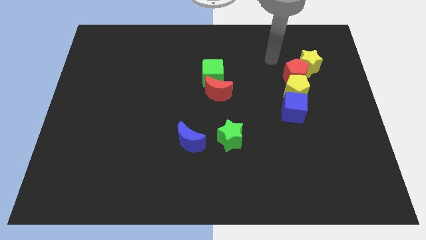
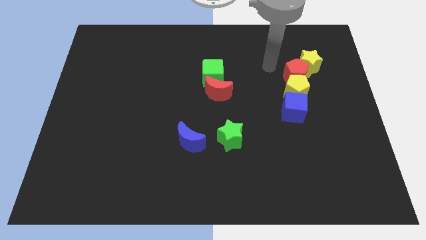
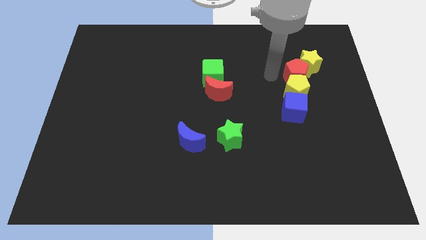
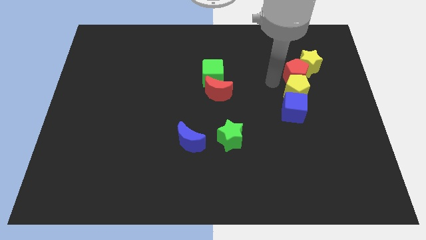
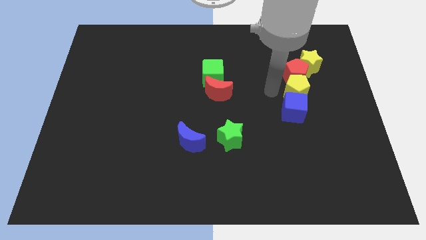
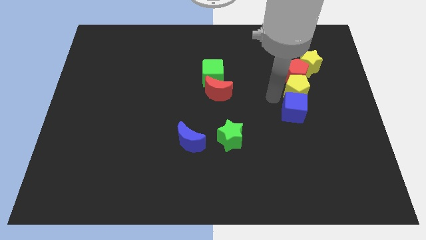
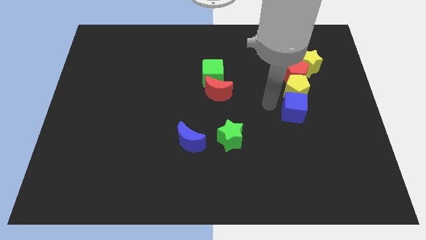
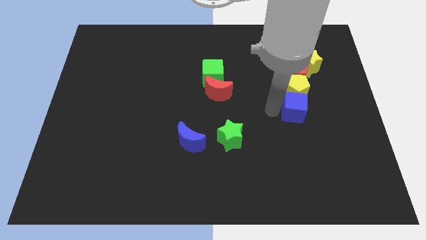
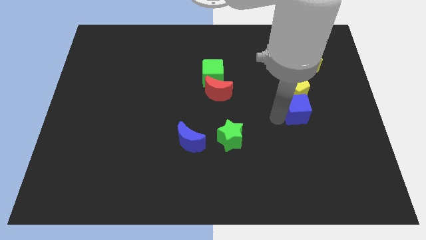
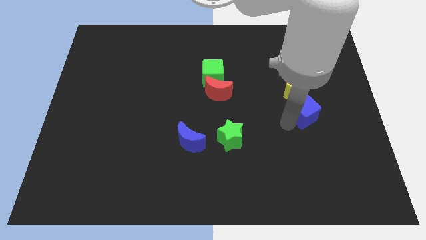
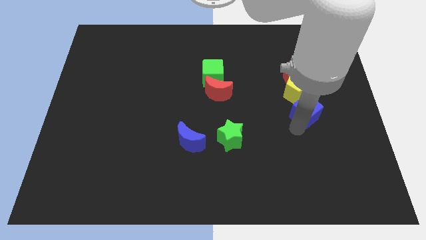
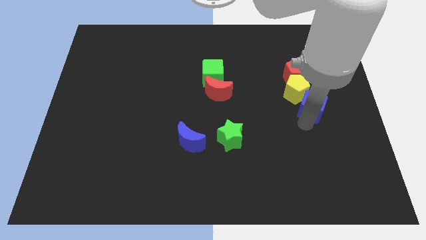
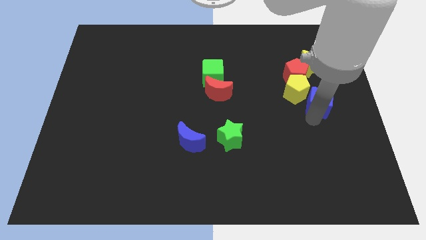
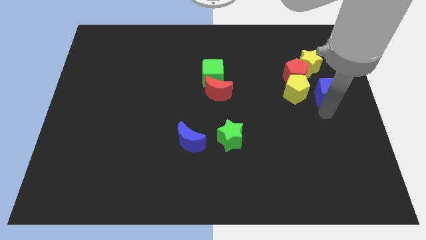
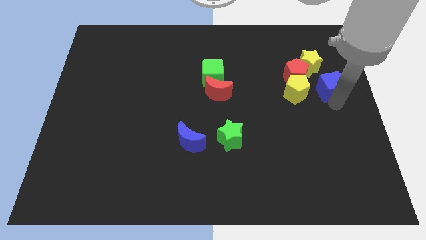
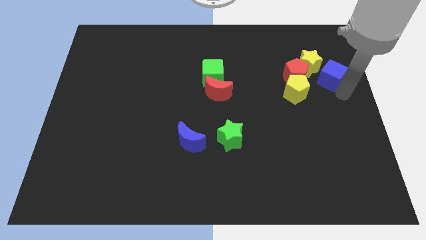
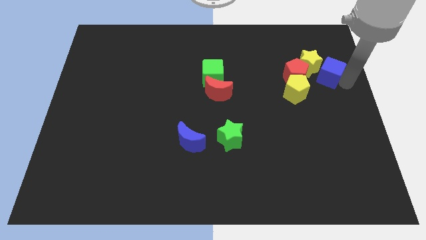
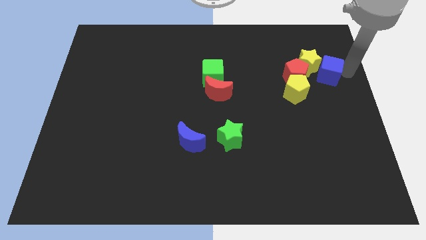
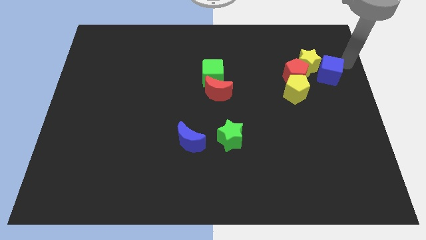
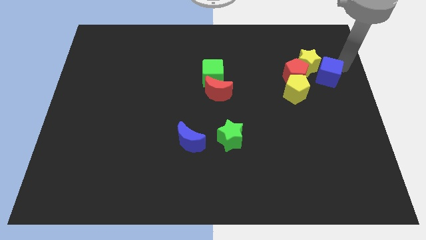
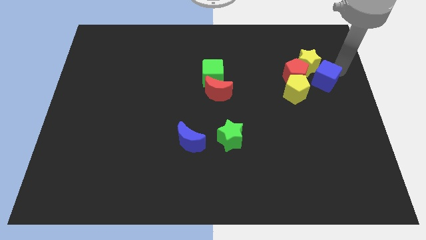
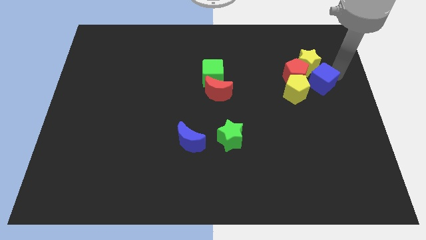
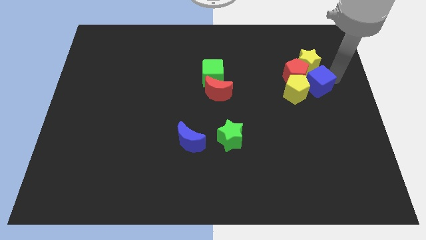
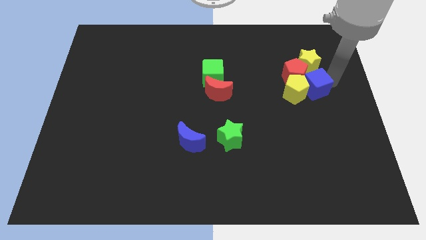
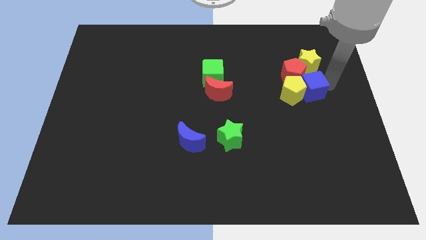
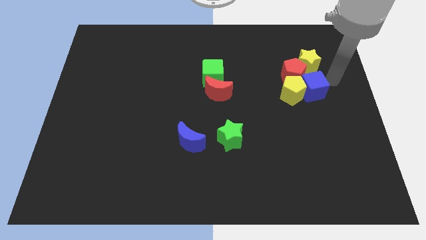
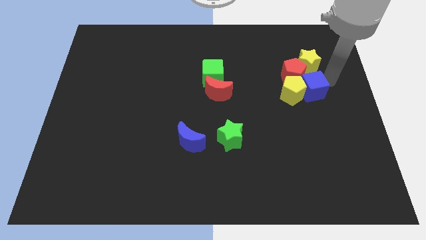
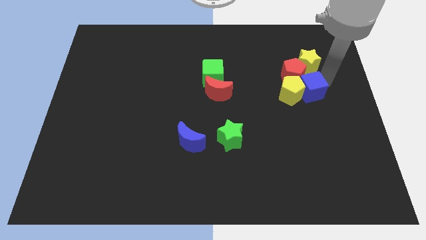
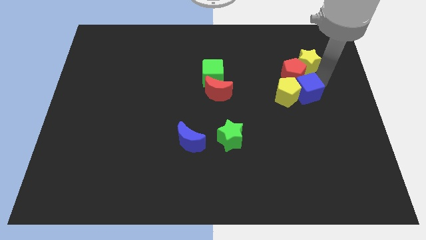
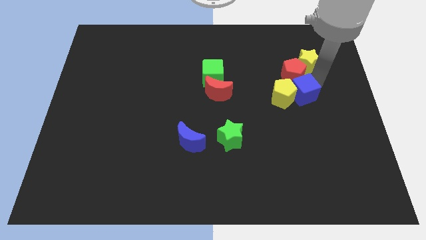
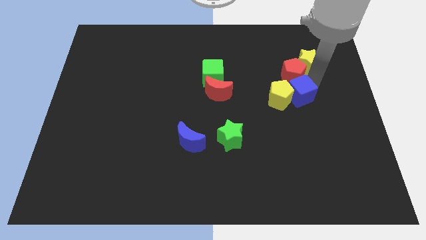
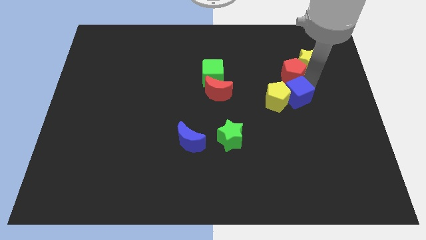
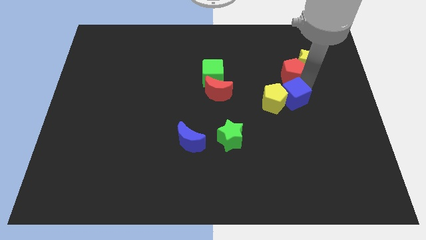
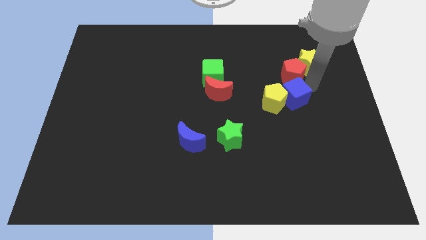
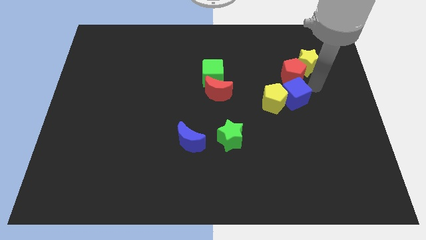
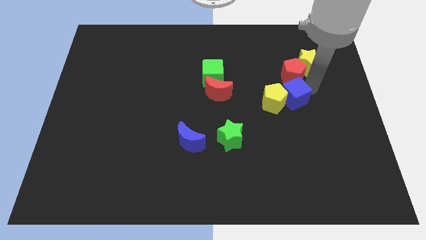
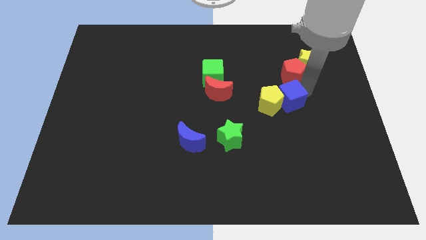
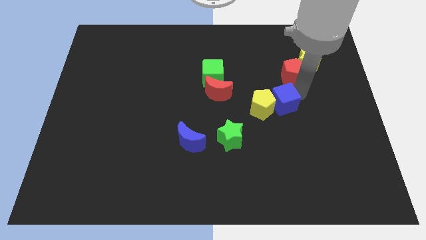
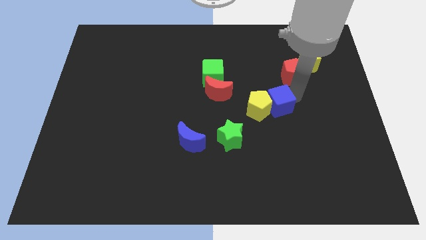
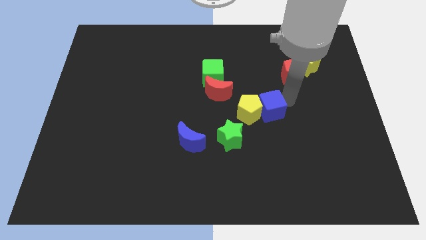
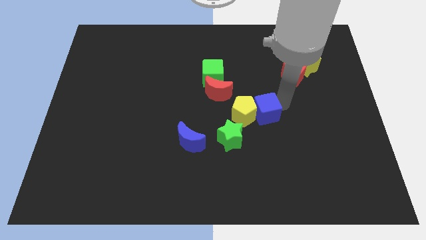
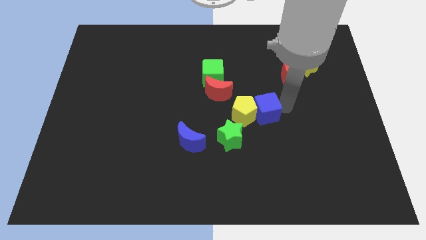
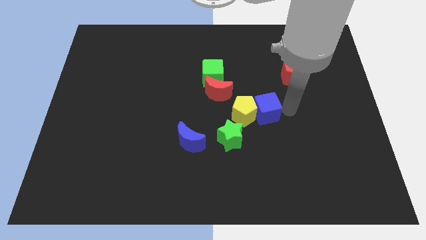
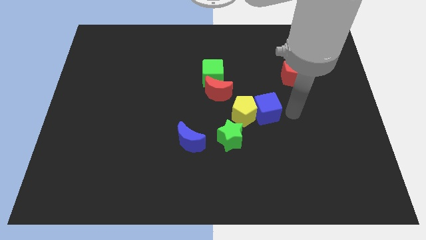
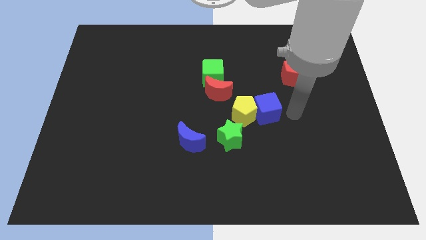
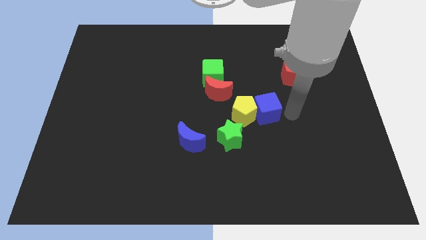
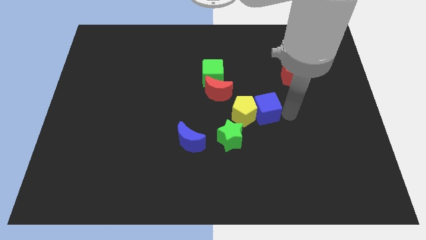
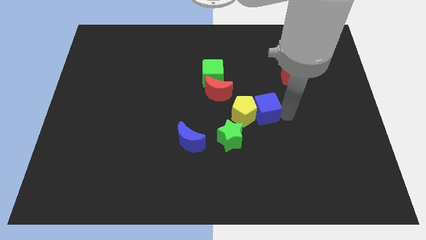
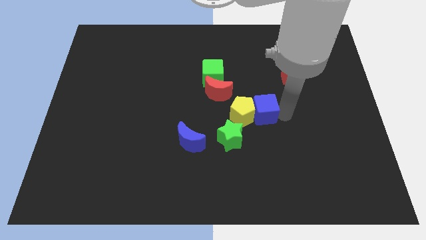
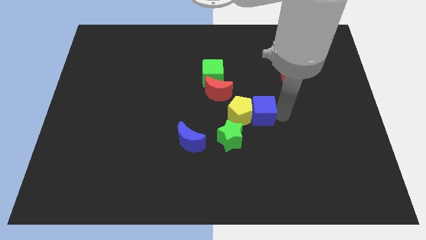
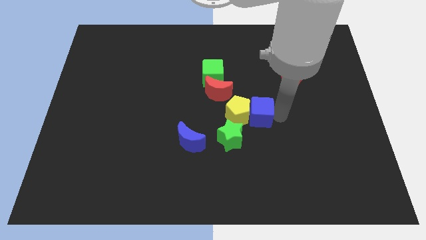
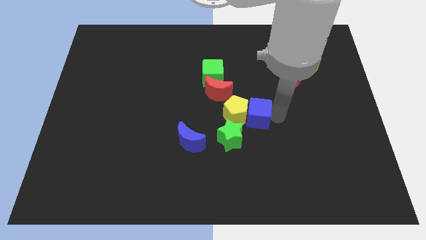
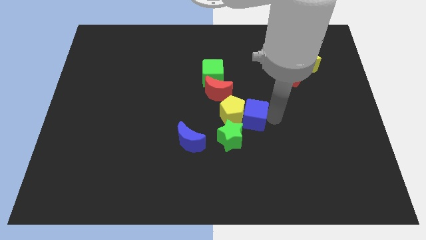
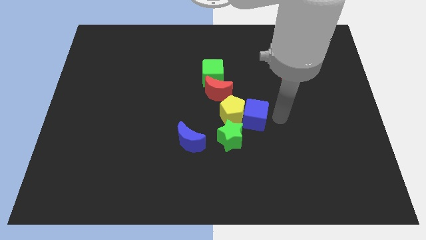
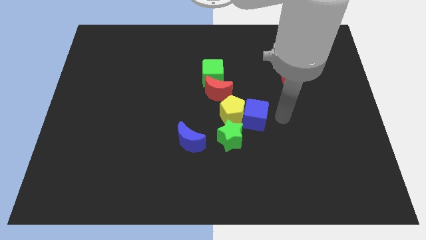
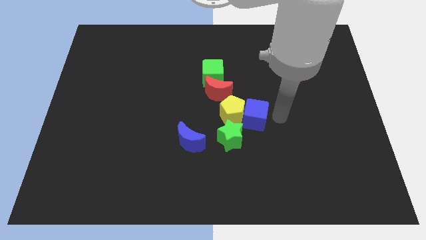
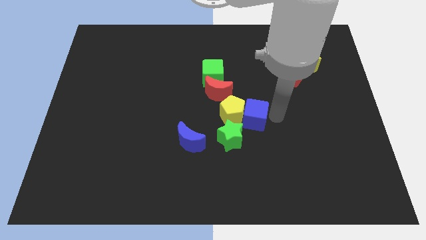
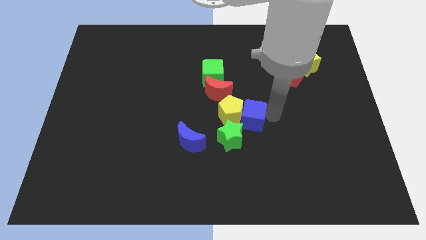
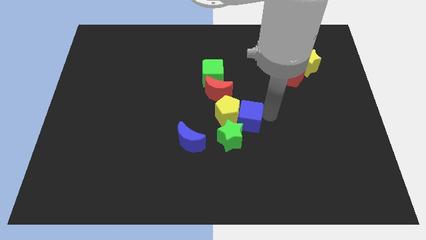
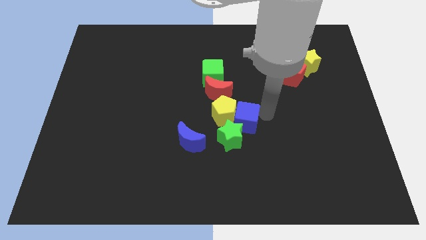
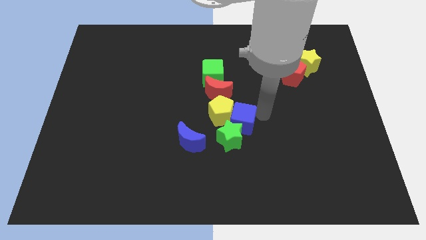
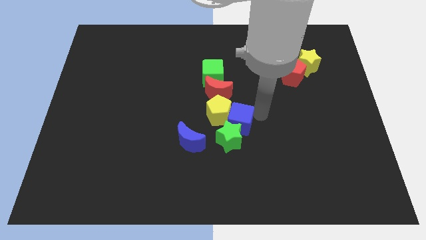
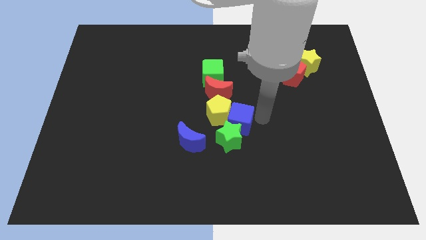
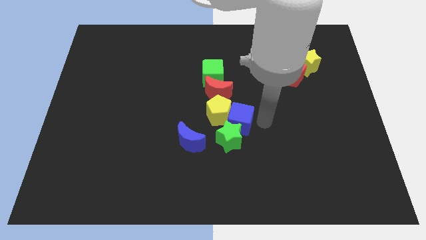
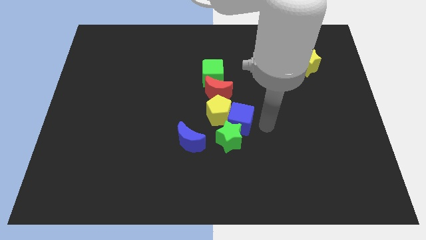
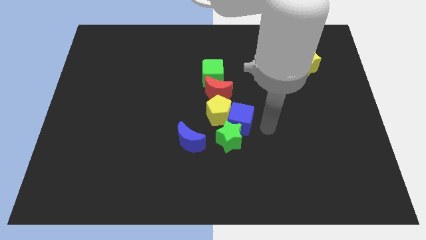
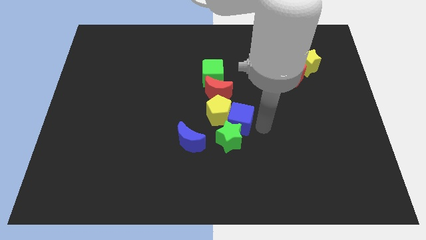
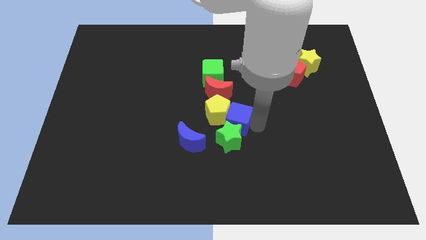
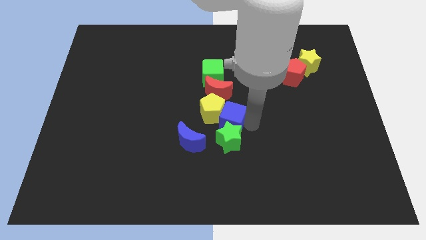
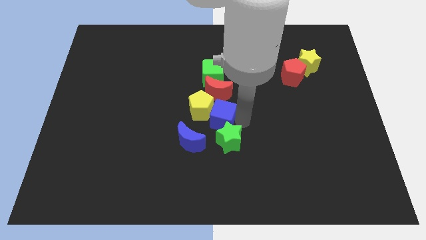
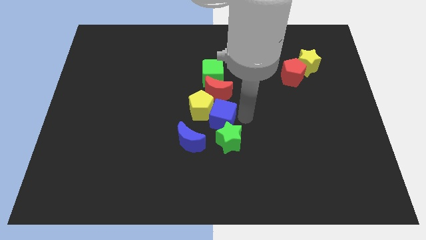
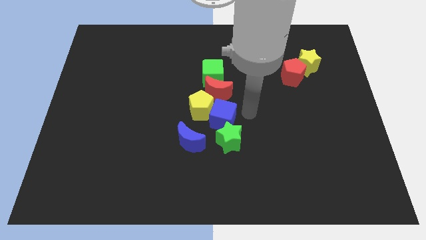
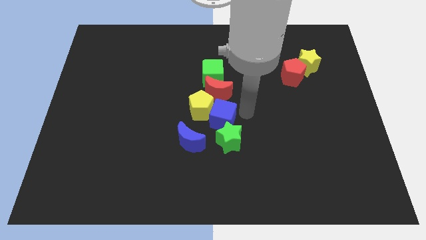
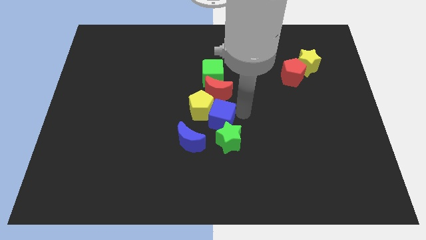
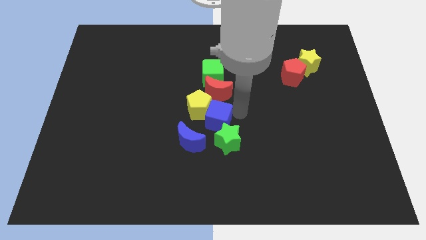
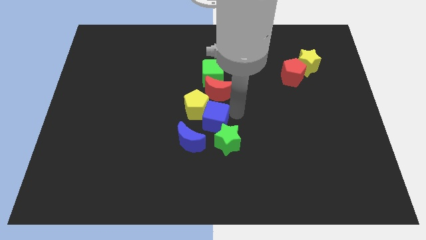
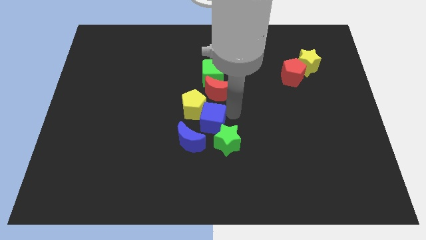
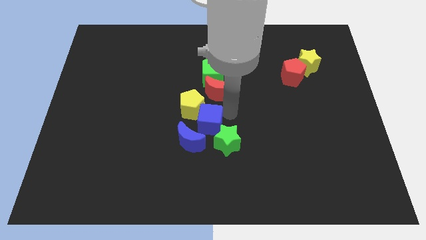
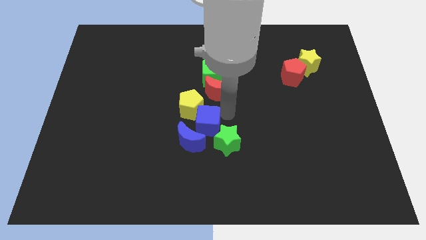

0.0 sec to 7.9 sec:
push the blue cube to the left of the green star

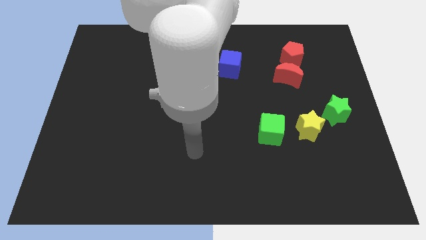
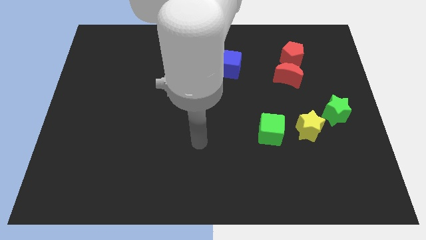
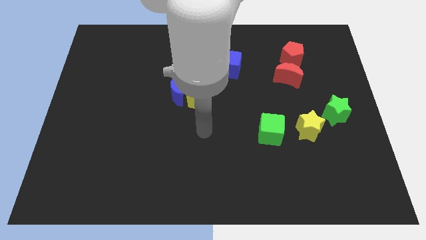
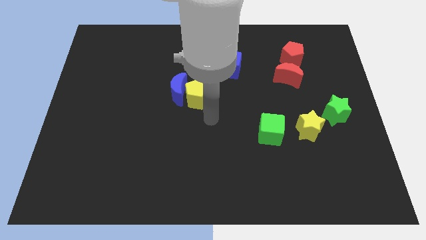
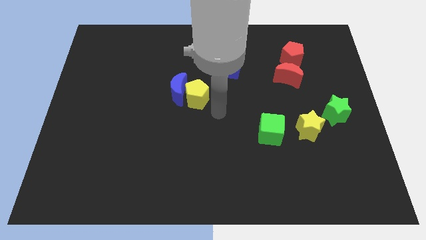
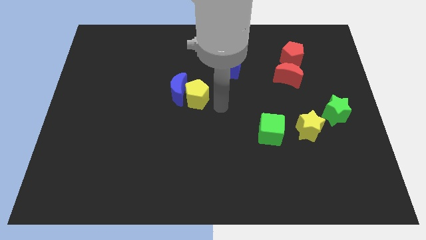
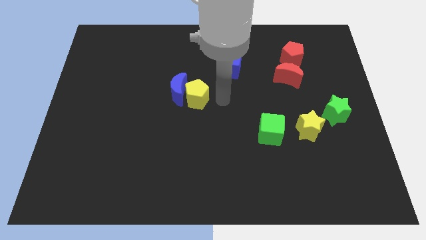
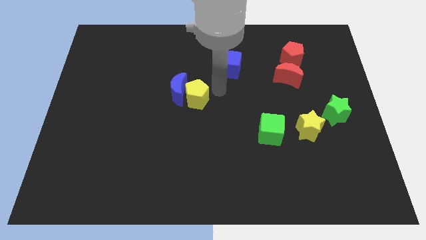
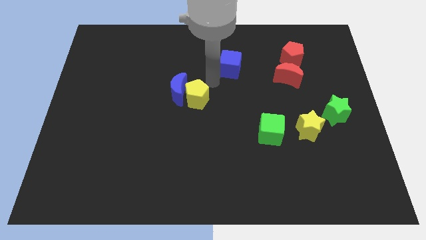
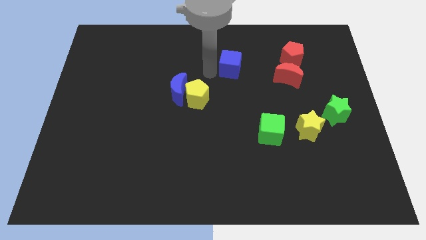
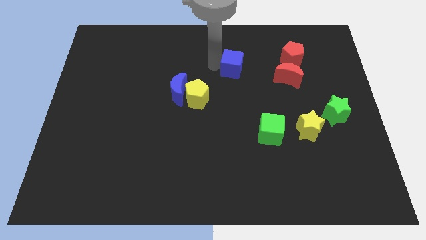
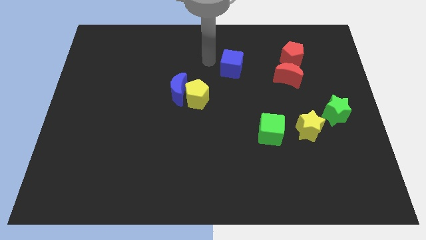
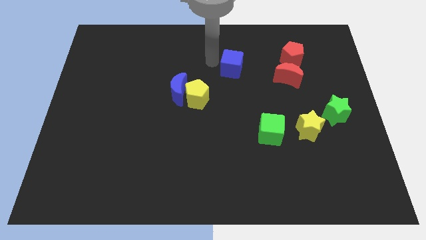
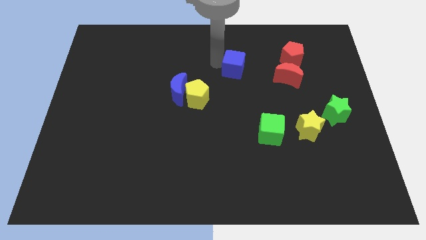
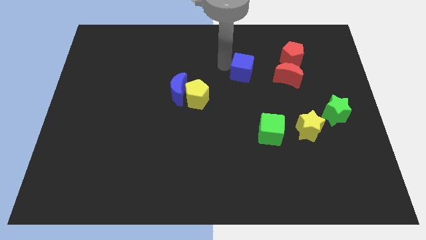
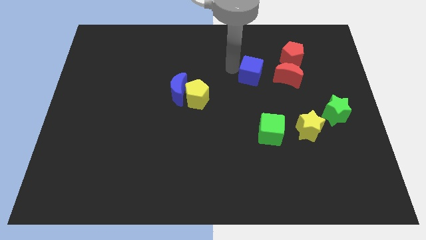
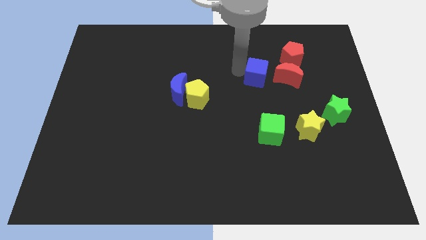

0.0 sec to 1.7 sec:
slide the blue cube to the bottom left side of the red pentagon
